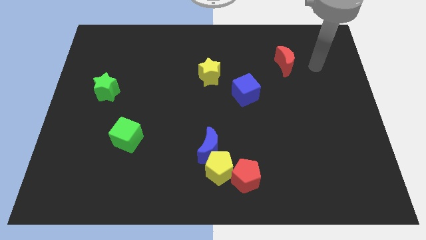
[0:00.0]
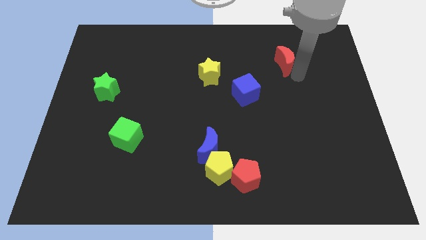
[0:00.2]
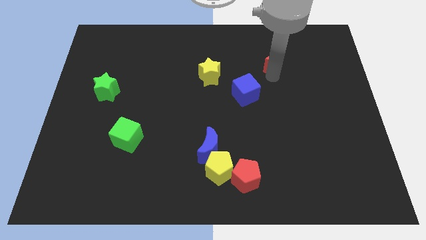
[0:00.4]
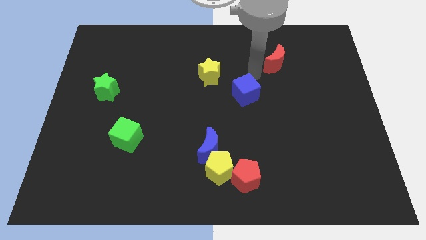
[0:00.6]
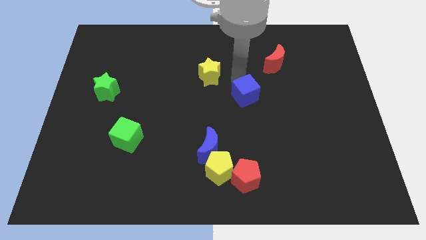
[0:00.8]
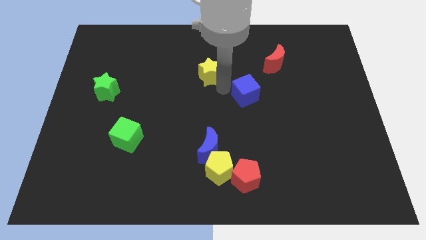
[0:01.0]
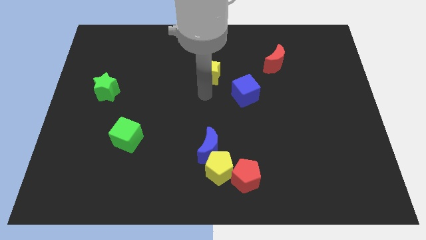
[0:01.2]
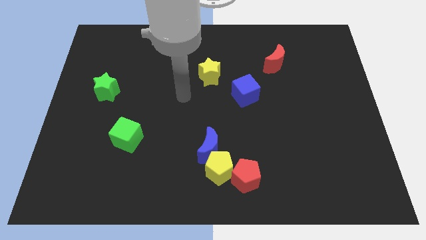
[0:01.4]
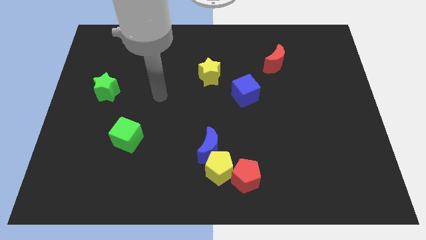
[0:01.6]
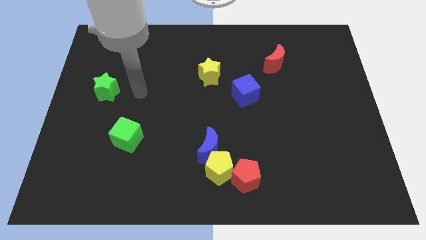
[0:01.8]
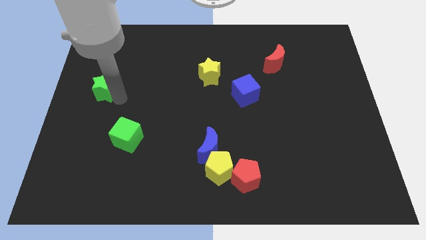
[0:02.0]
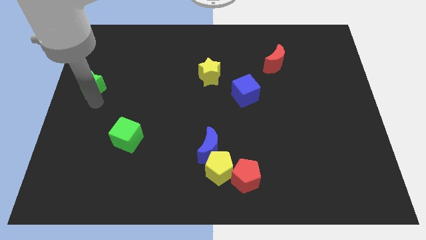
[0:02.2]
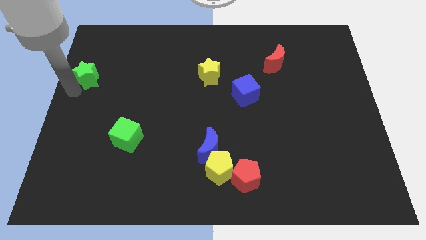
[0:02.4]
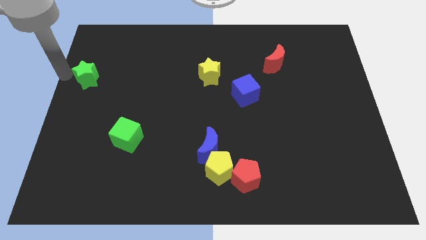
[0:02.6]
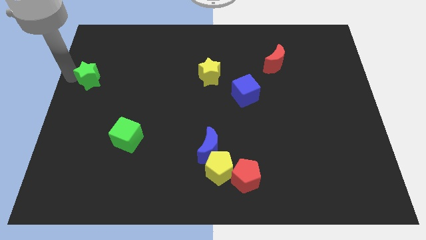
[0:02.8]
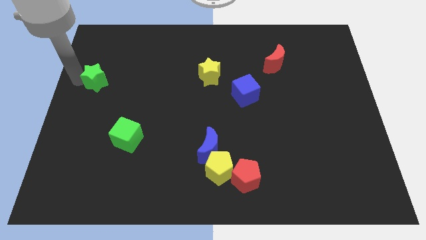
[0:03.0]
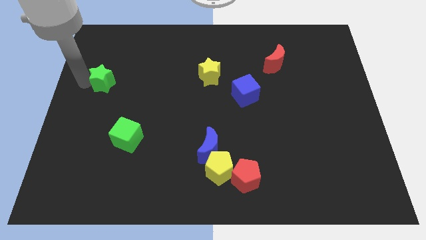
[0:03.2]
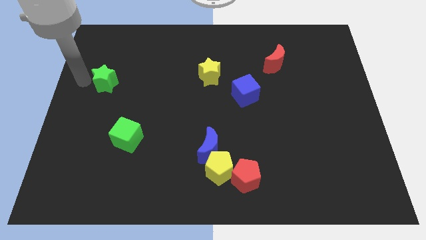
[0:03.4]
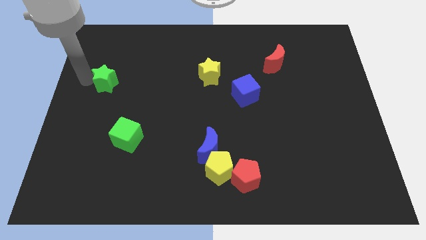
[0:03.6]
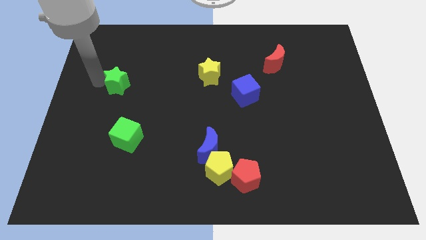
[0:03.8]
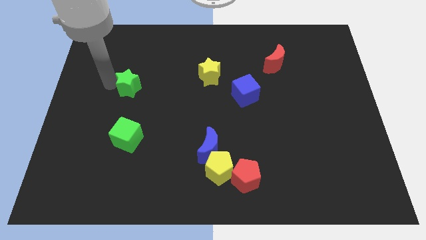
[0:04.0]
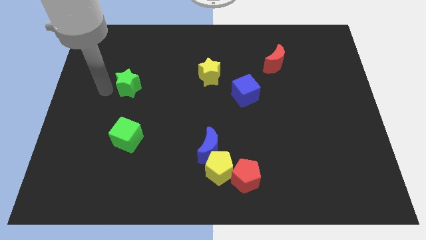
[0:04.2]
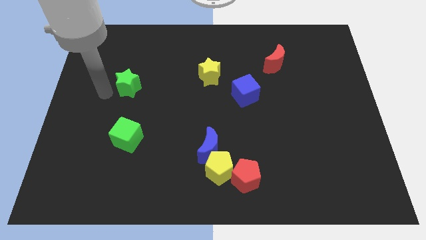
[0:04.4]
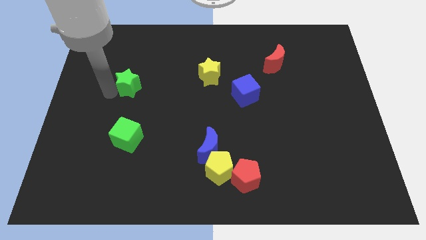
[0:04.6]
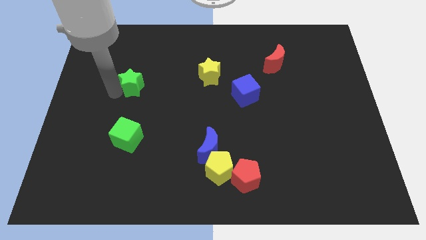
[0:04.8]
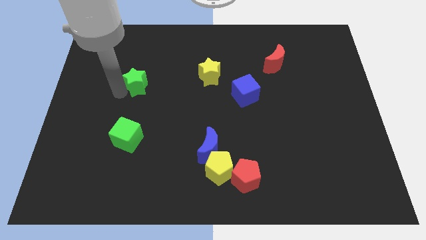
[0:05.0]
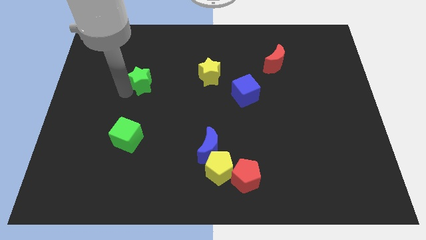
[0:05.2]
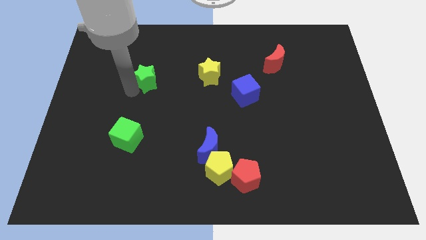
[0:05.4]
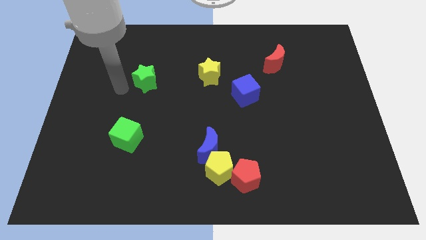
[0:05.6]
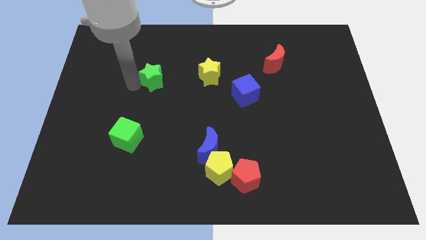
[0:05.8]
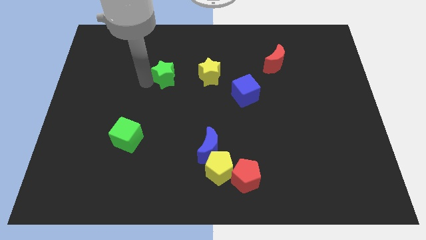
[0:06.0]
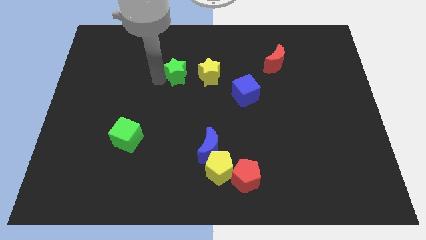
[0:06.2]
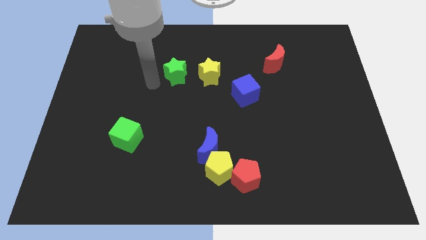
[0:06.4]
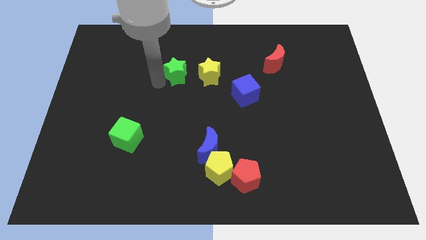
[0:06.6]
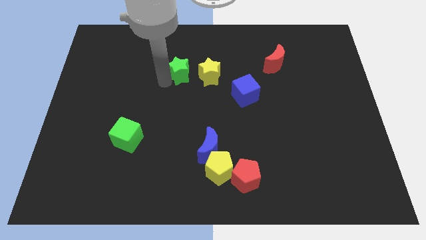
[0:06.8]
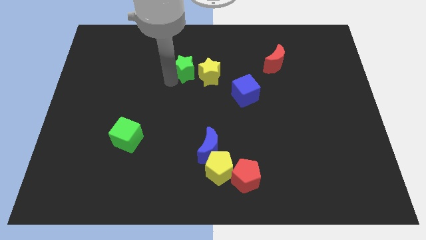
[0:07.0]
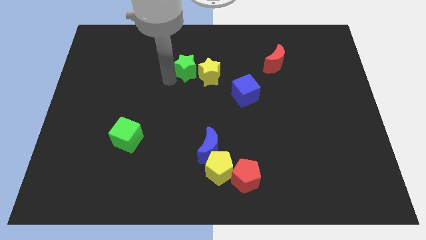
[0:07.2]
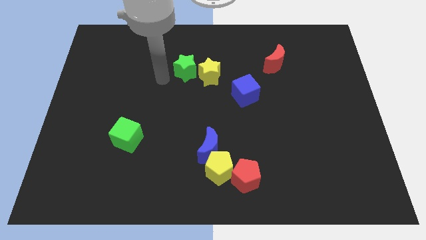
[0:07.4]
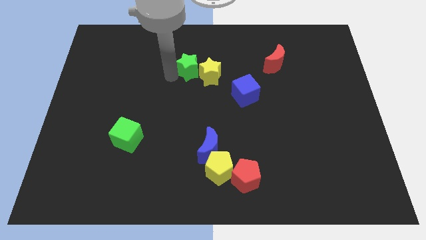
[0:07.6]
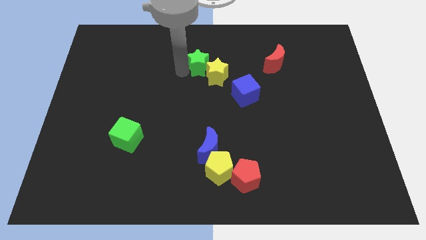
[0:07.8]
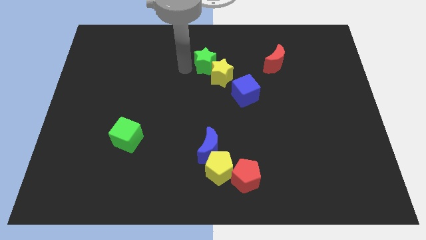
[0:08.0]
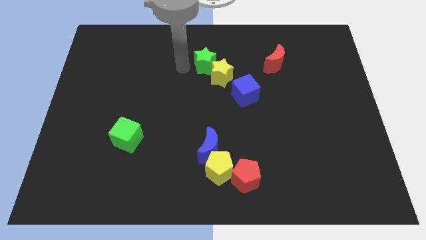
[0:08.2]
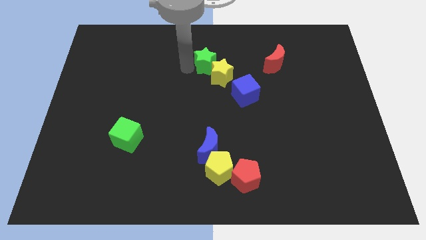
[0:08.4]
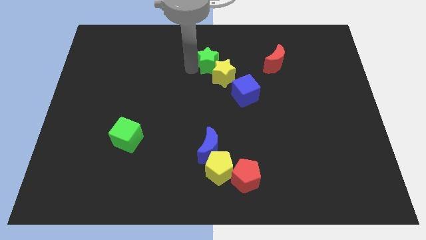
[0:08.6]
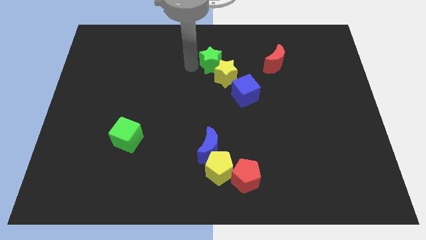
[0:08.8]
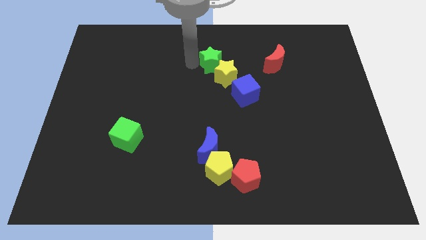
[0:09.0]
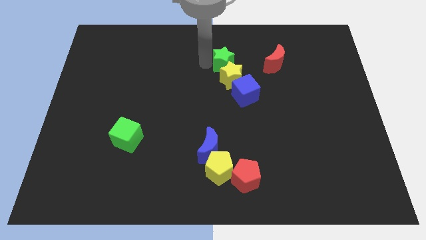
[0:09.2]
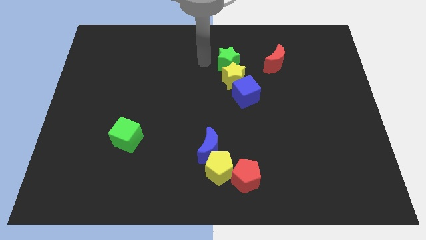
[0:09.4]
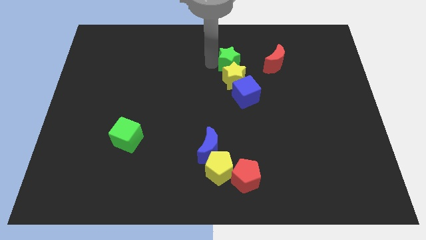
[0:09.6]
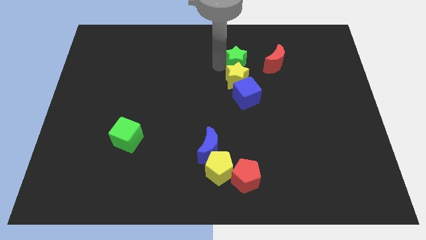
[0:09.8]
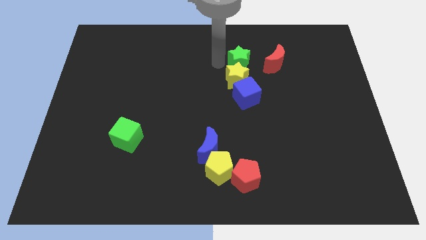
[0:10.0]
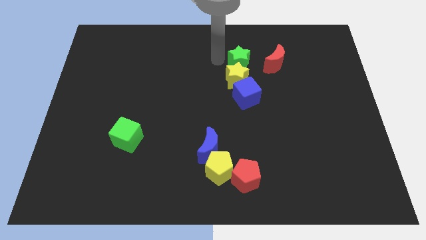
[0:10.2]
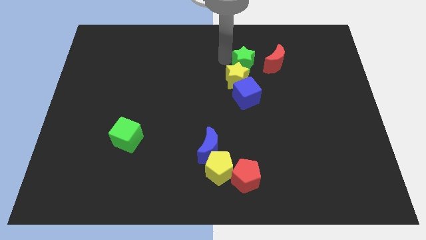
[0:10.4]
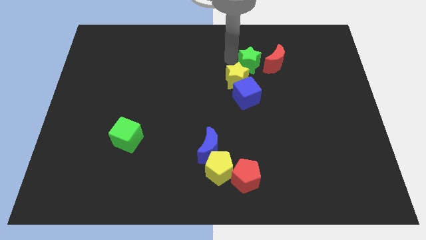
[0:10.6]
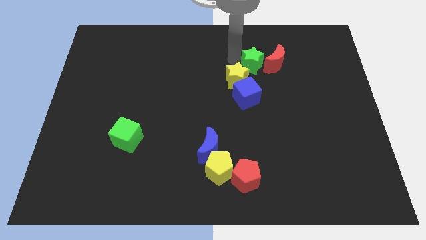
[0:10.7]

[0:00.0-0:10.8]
put the green star to the red moon

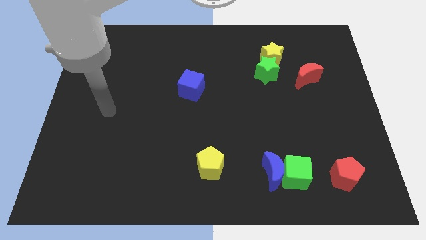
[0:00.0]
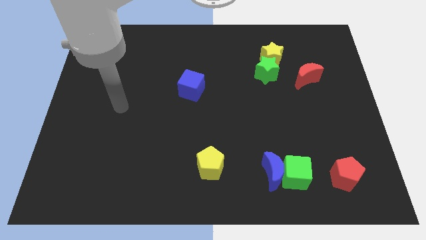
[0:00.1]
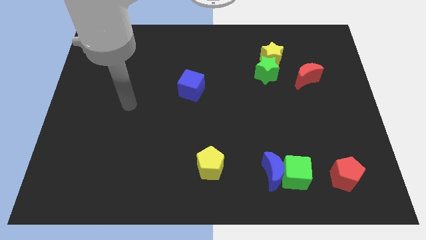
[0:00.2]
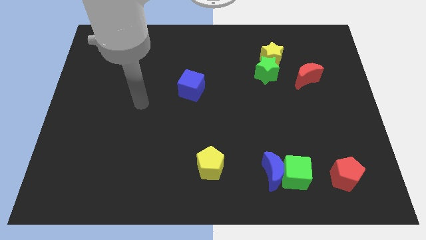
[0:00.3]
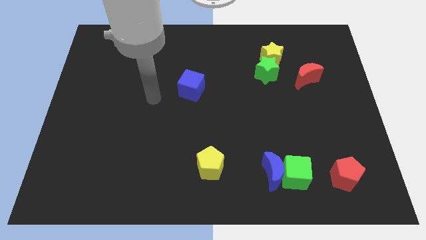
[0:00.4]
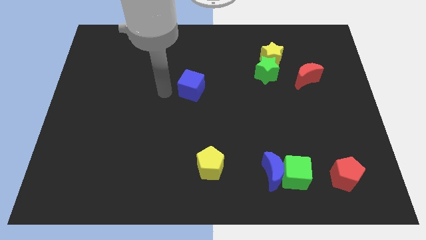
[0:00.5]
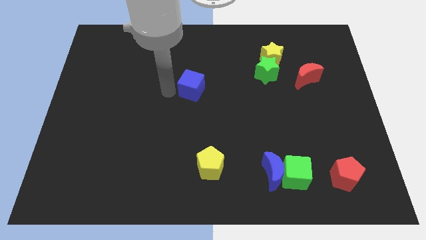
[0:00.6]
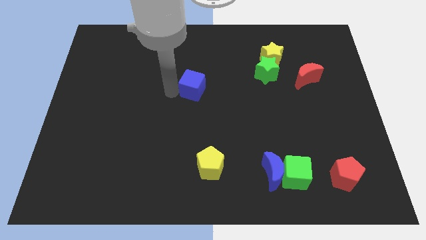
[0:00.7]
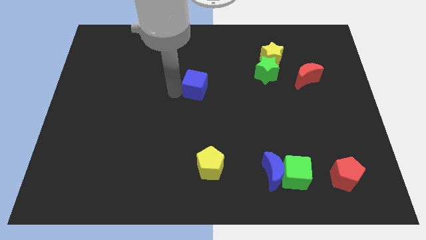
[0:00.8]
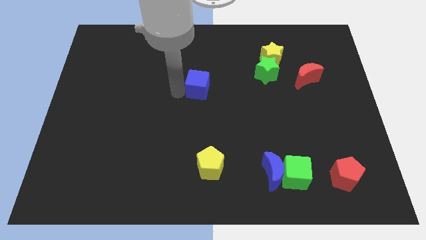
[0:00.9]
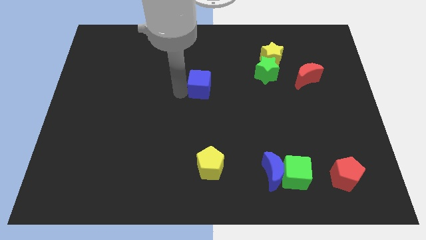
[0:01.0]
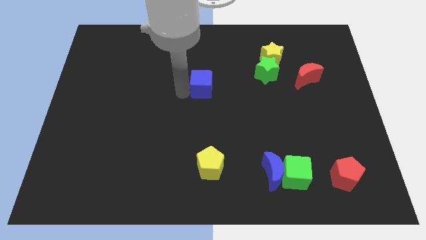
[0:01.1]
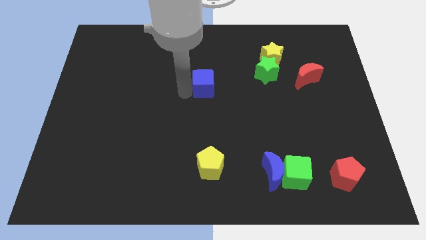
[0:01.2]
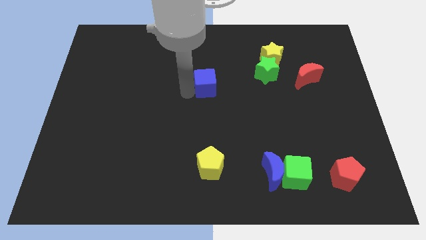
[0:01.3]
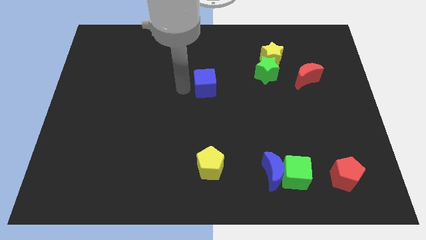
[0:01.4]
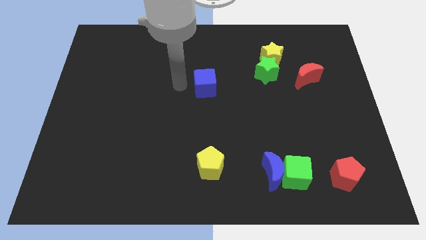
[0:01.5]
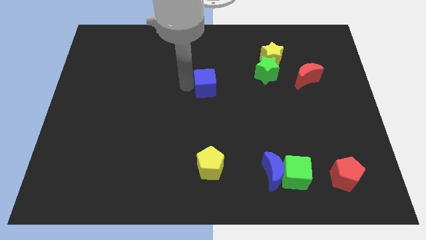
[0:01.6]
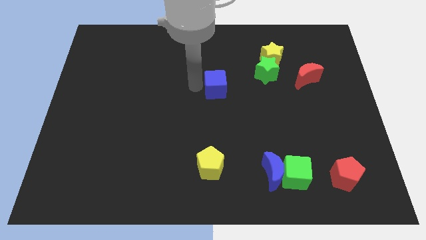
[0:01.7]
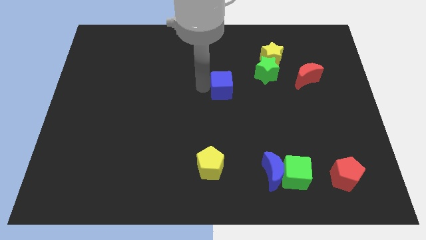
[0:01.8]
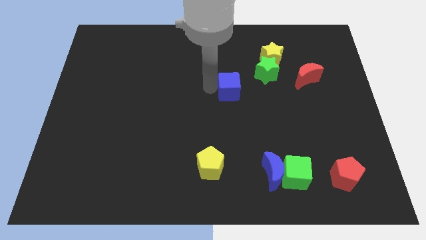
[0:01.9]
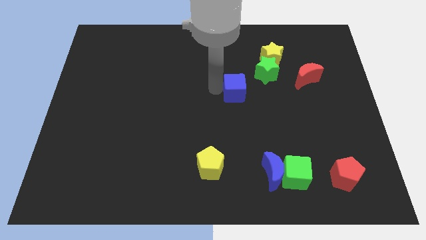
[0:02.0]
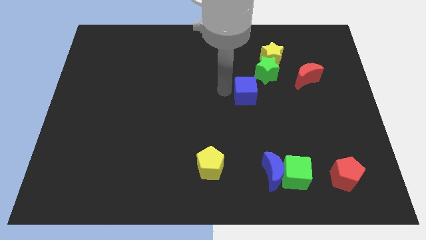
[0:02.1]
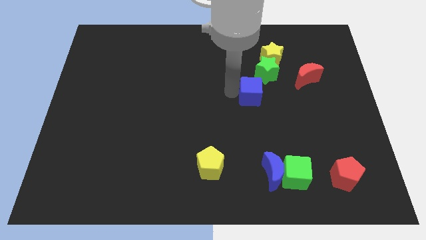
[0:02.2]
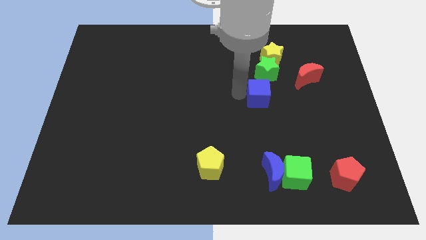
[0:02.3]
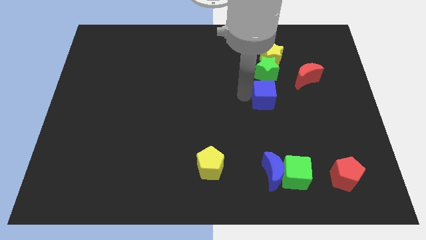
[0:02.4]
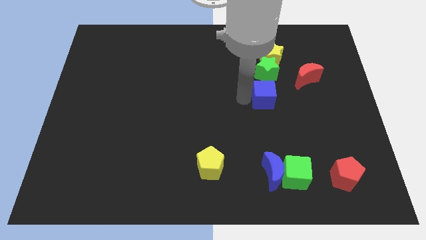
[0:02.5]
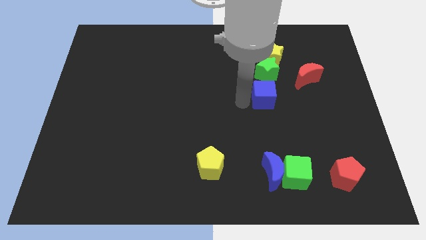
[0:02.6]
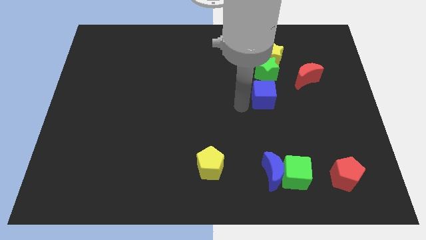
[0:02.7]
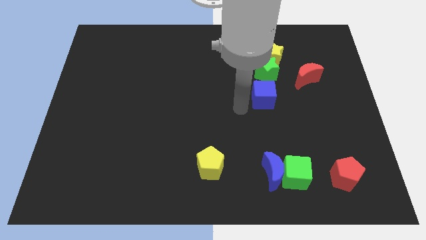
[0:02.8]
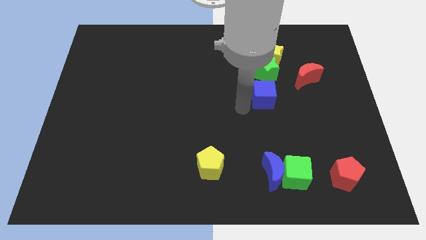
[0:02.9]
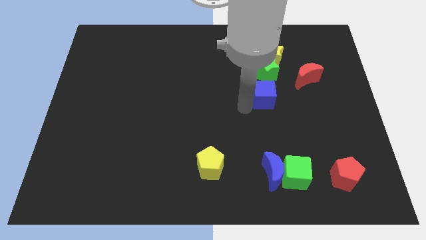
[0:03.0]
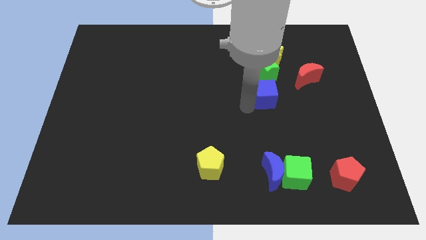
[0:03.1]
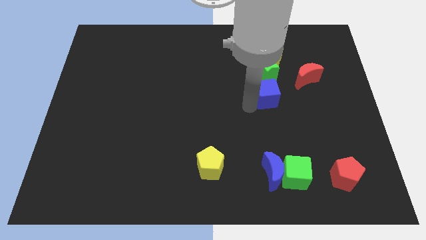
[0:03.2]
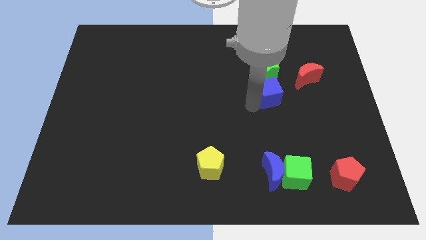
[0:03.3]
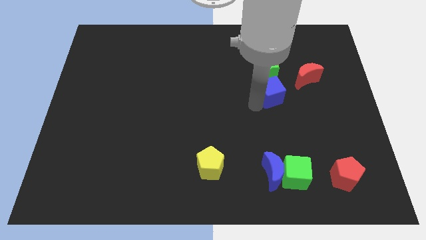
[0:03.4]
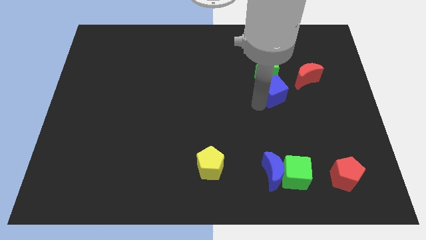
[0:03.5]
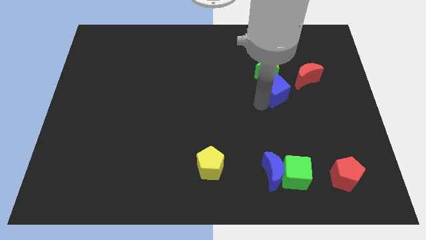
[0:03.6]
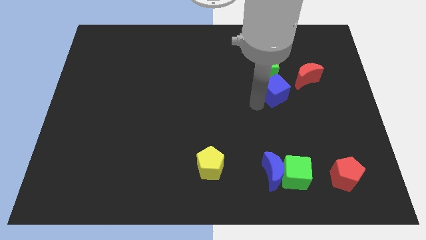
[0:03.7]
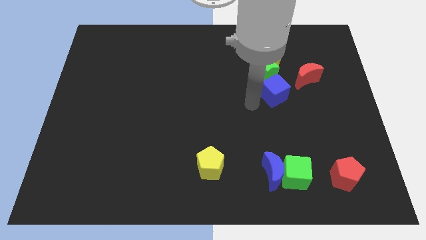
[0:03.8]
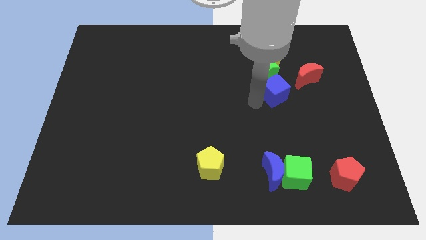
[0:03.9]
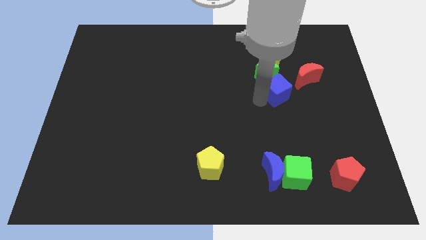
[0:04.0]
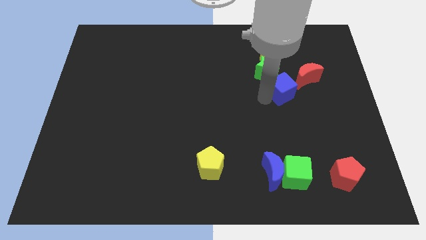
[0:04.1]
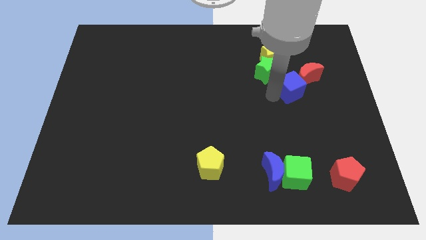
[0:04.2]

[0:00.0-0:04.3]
move the blue cube towards the red moon
